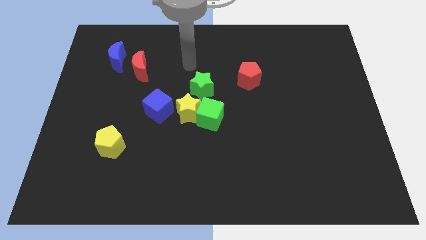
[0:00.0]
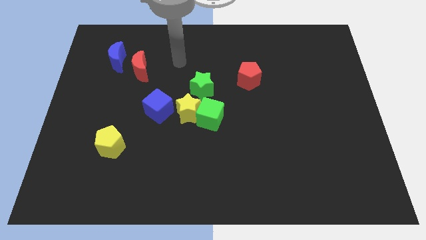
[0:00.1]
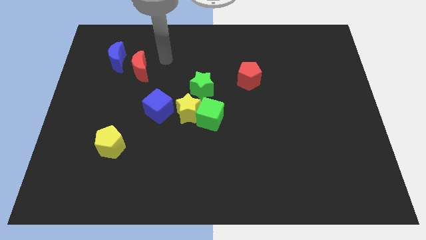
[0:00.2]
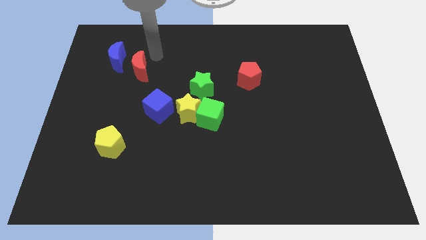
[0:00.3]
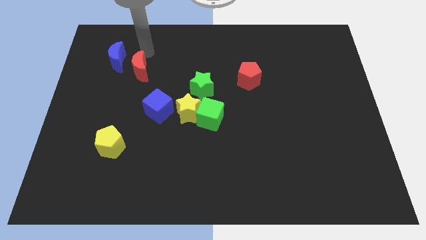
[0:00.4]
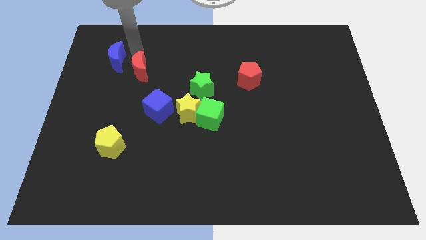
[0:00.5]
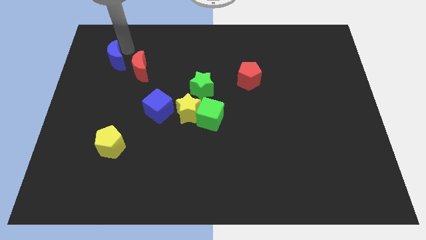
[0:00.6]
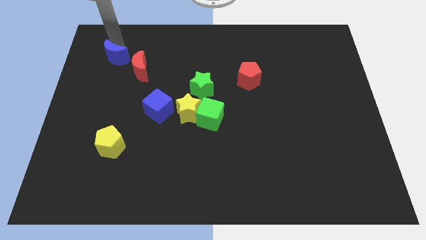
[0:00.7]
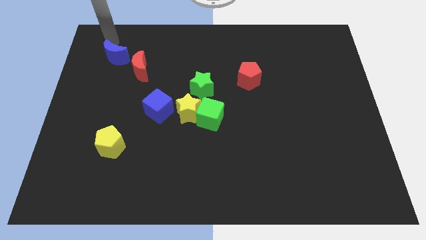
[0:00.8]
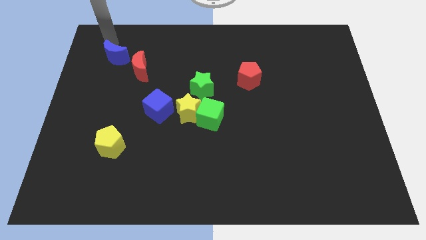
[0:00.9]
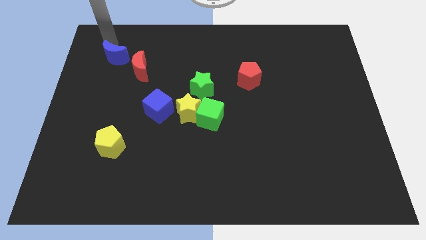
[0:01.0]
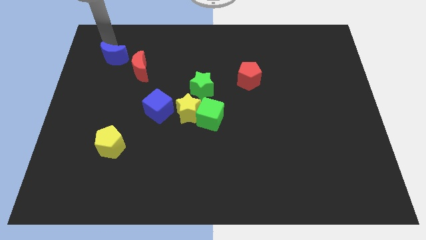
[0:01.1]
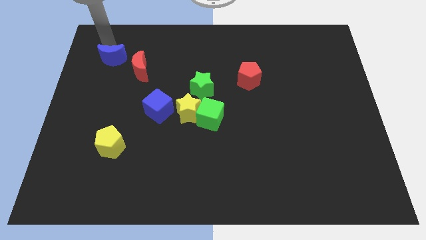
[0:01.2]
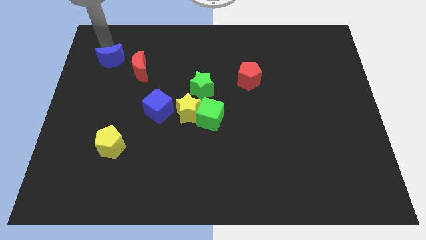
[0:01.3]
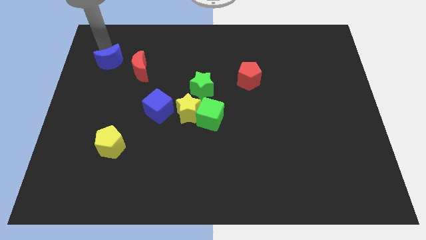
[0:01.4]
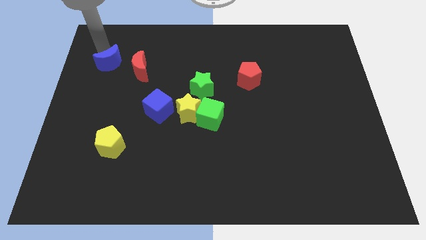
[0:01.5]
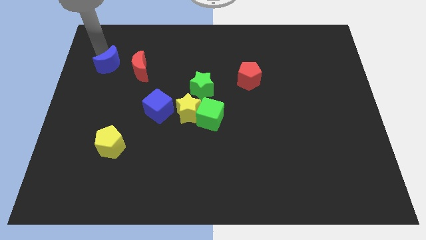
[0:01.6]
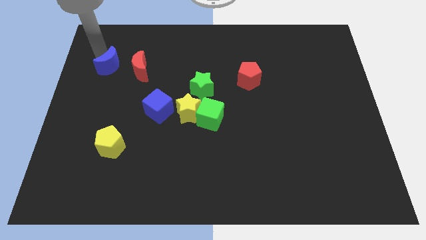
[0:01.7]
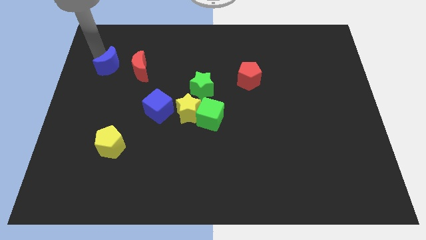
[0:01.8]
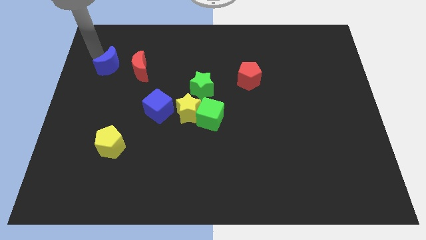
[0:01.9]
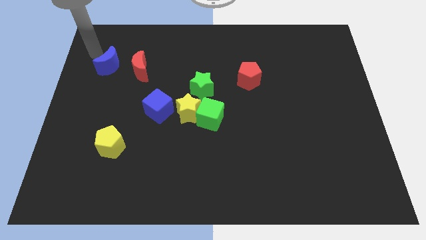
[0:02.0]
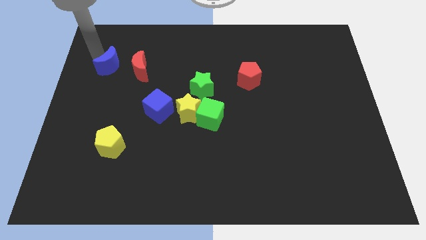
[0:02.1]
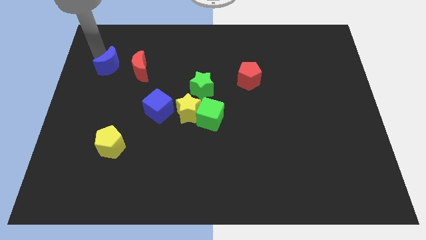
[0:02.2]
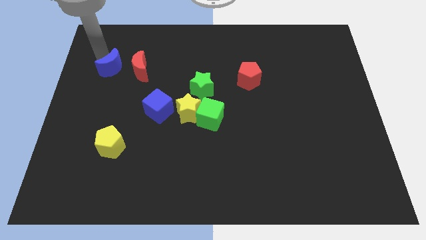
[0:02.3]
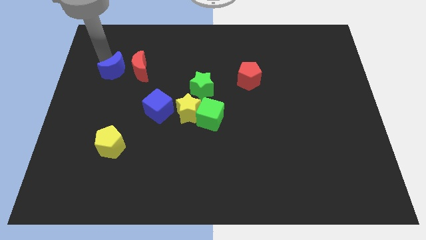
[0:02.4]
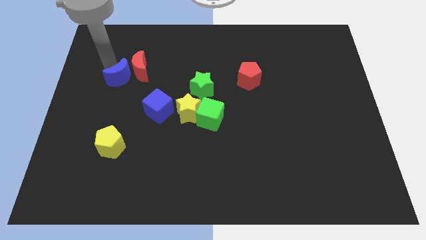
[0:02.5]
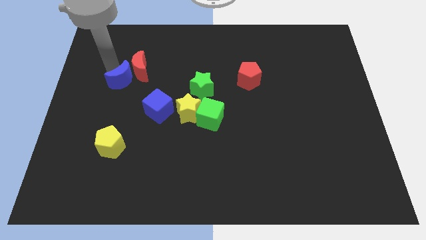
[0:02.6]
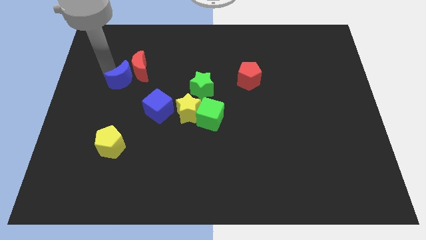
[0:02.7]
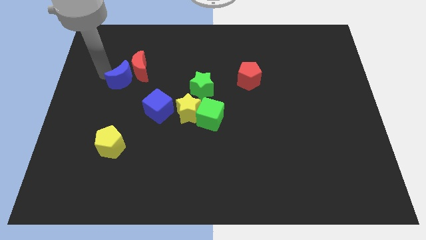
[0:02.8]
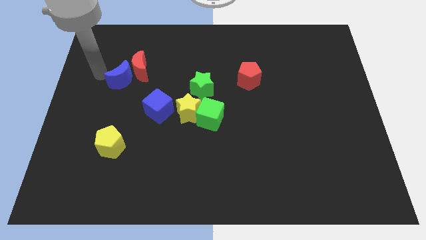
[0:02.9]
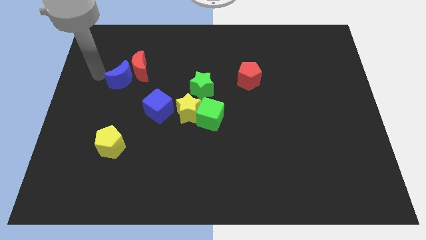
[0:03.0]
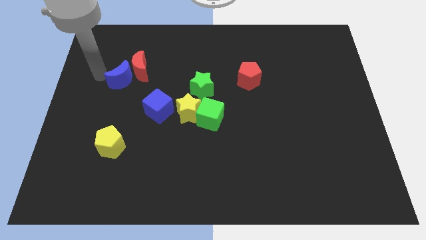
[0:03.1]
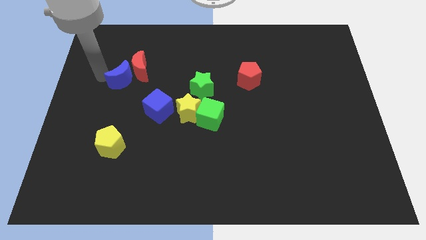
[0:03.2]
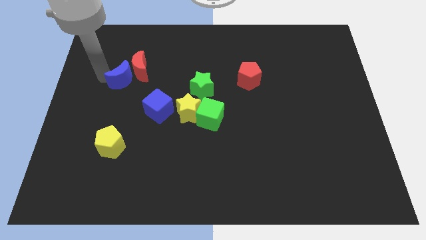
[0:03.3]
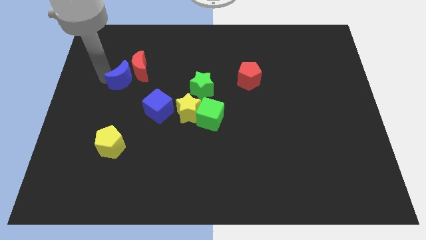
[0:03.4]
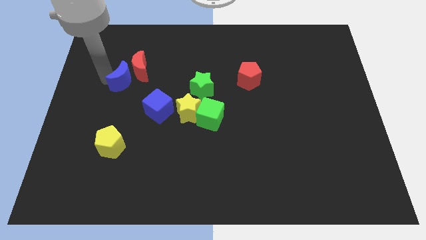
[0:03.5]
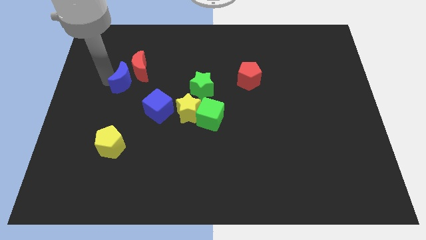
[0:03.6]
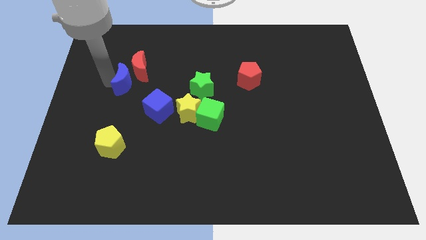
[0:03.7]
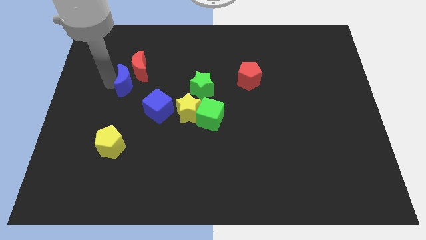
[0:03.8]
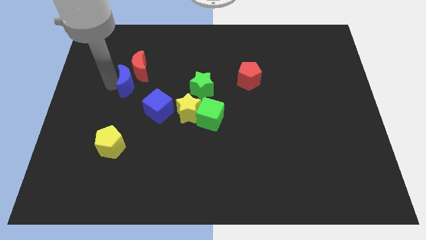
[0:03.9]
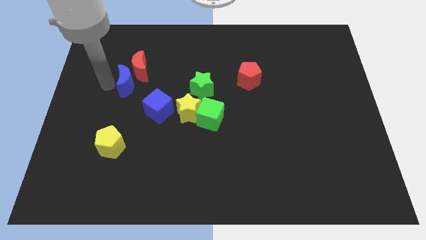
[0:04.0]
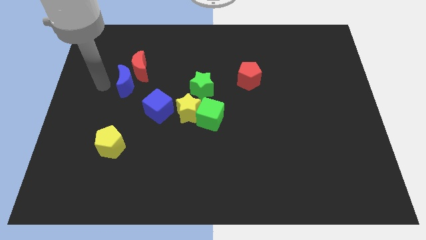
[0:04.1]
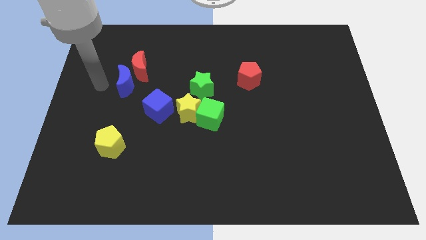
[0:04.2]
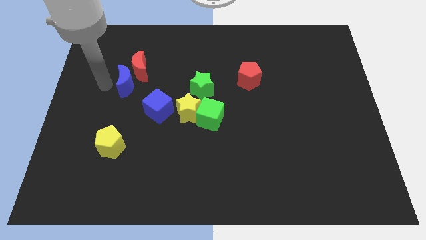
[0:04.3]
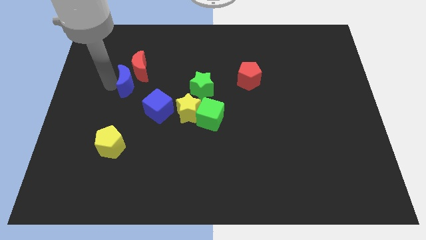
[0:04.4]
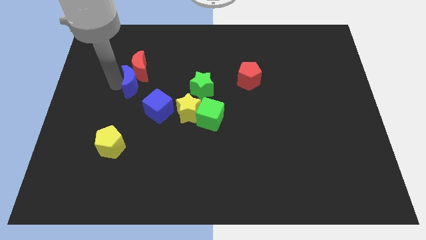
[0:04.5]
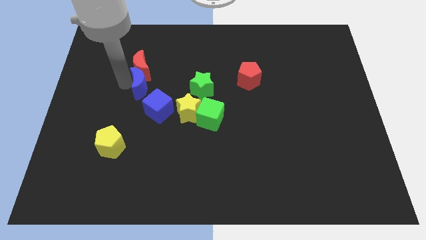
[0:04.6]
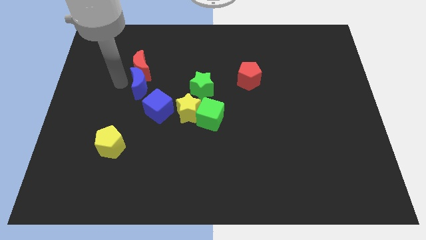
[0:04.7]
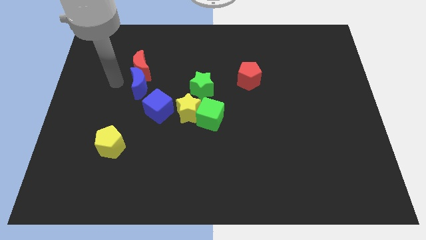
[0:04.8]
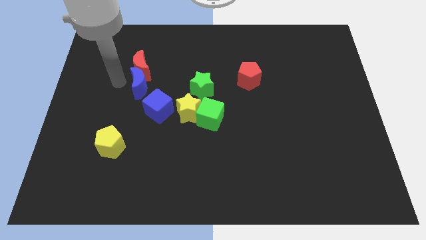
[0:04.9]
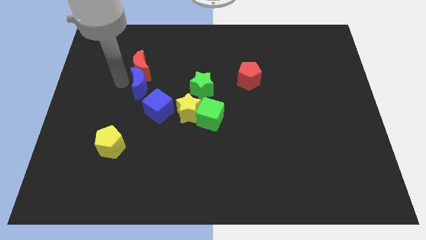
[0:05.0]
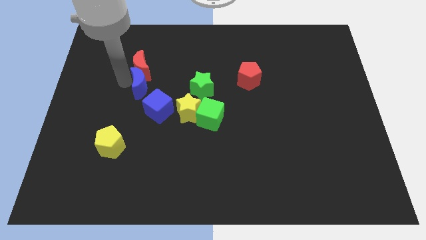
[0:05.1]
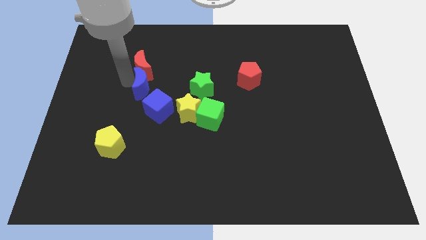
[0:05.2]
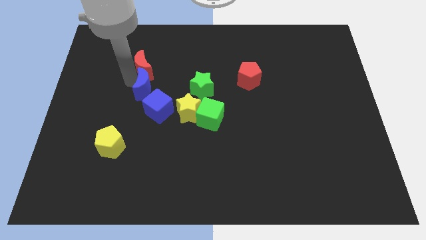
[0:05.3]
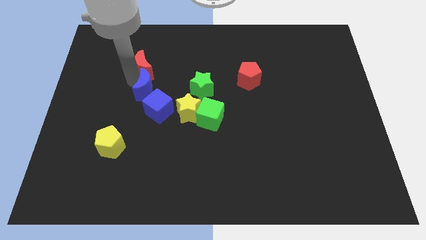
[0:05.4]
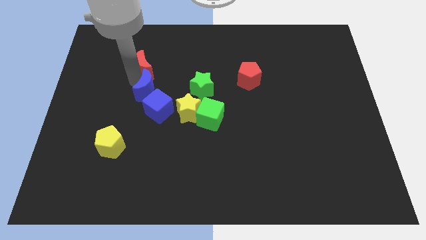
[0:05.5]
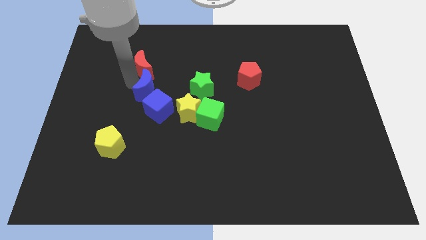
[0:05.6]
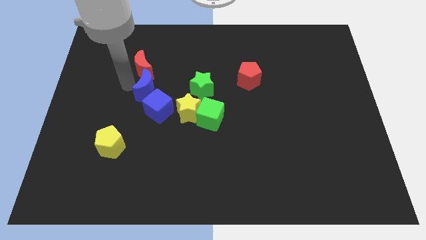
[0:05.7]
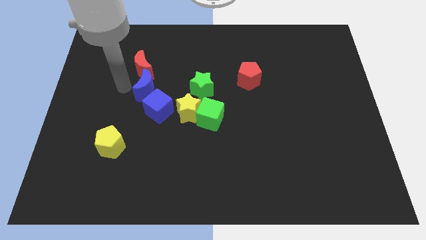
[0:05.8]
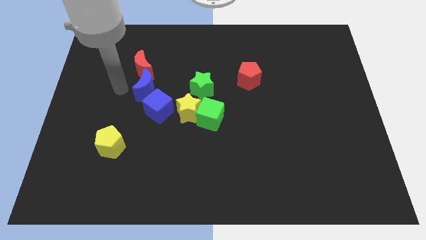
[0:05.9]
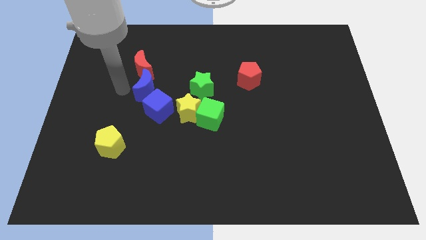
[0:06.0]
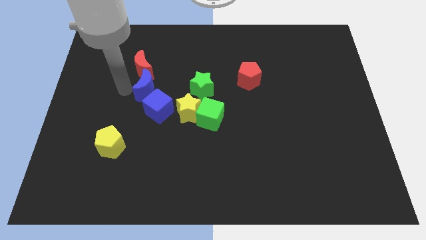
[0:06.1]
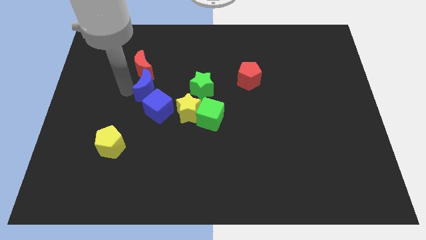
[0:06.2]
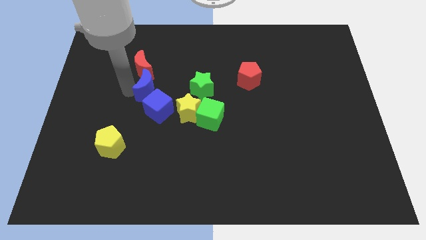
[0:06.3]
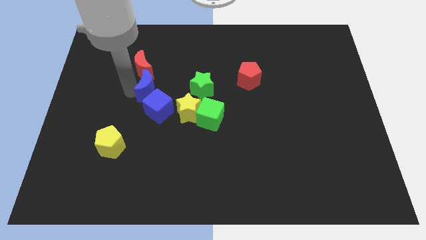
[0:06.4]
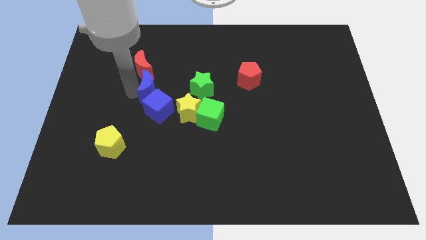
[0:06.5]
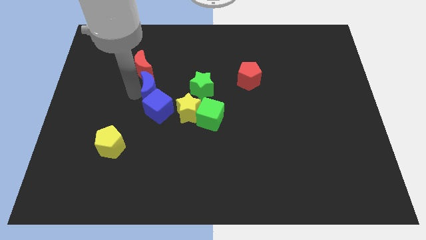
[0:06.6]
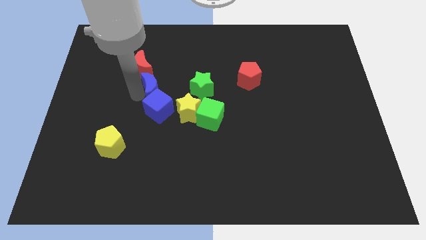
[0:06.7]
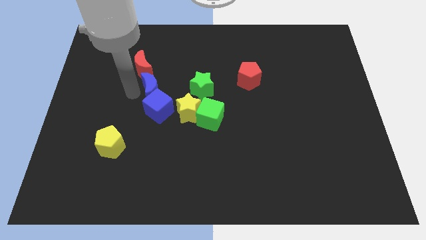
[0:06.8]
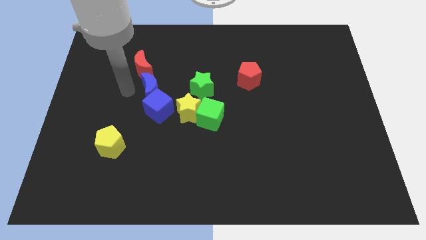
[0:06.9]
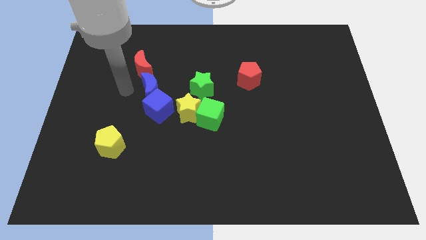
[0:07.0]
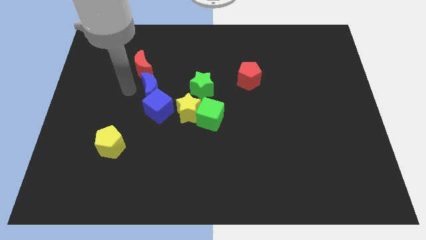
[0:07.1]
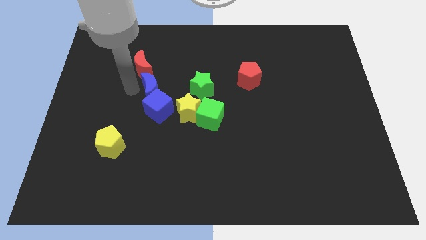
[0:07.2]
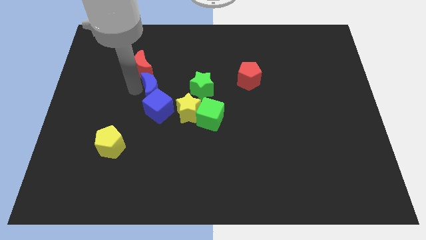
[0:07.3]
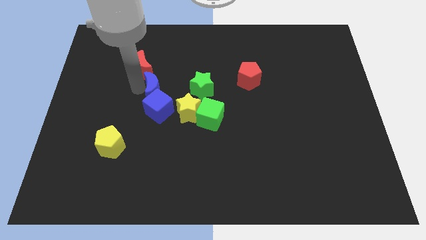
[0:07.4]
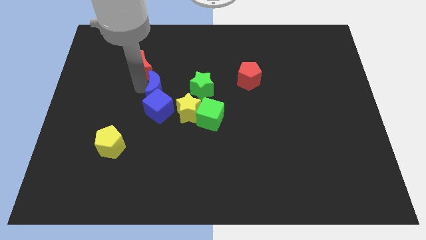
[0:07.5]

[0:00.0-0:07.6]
put the blue moon to the top right side of the blue cube
